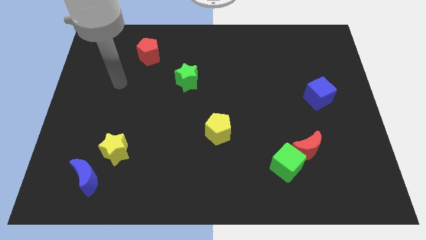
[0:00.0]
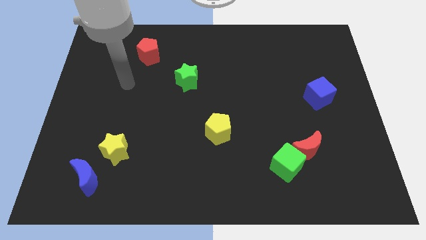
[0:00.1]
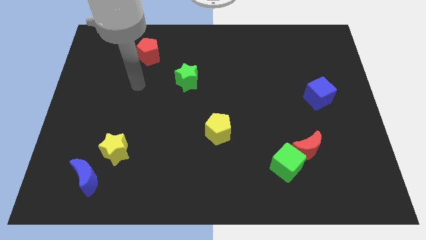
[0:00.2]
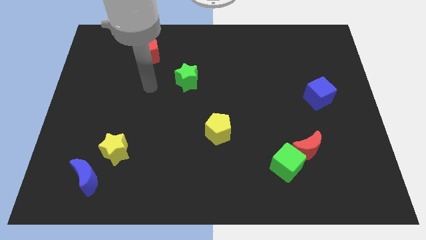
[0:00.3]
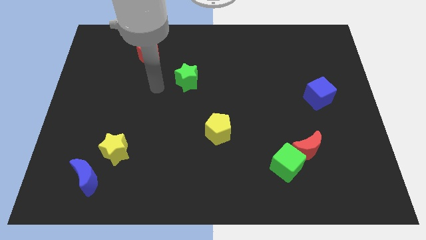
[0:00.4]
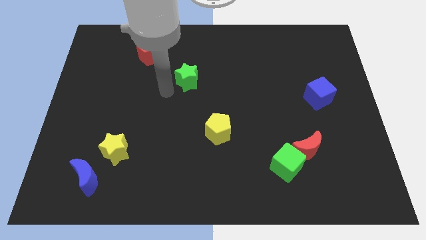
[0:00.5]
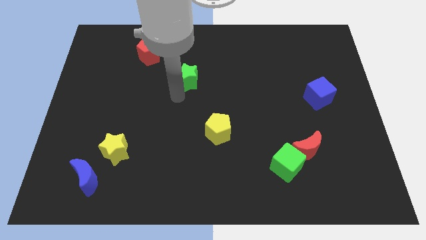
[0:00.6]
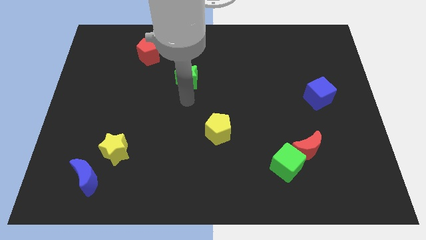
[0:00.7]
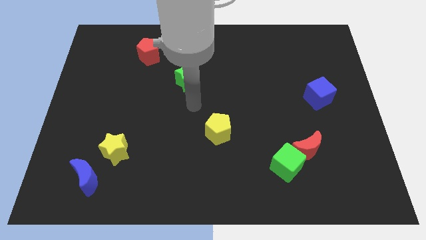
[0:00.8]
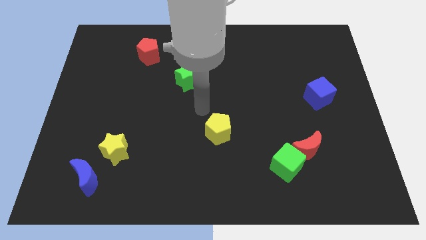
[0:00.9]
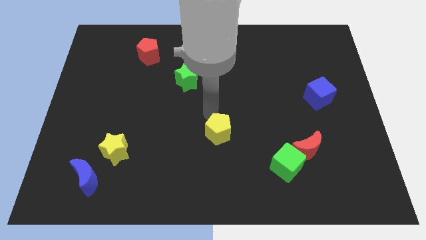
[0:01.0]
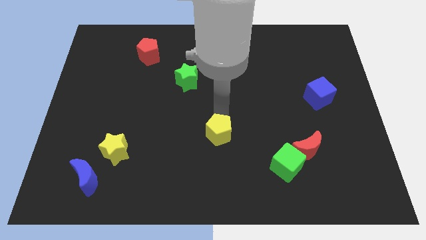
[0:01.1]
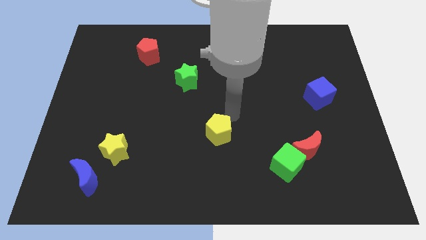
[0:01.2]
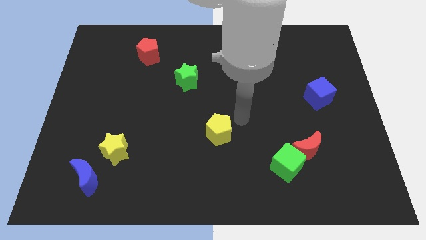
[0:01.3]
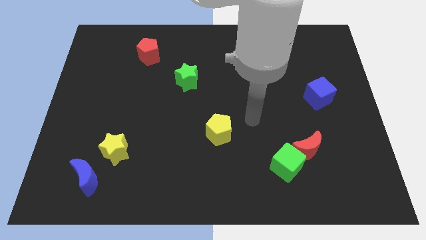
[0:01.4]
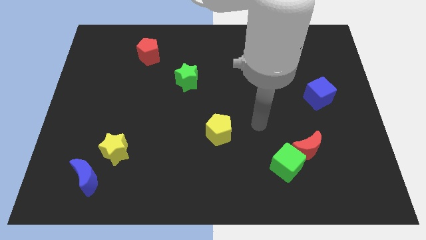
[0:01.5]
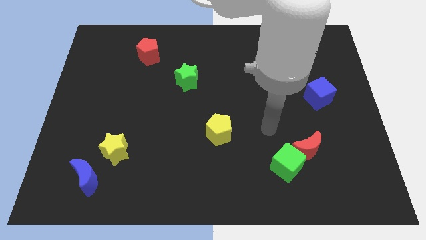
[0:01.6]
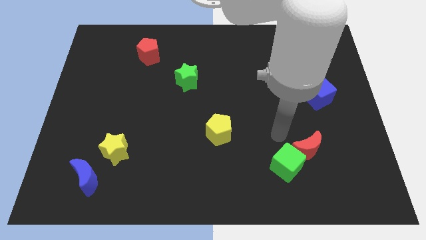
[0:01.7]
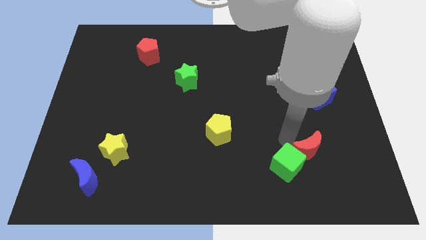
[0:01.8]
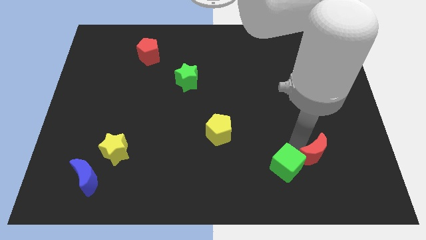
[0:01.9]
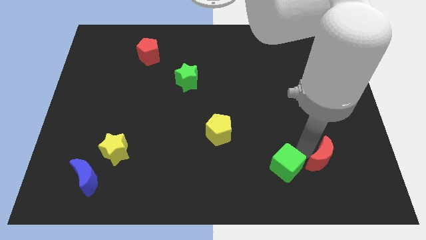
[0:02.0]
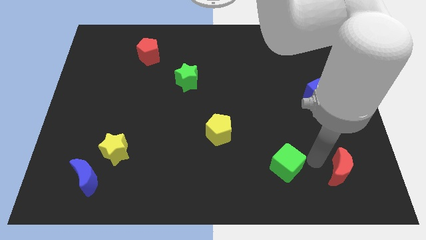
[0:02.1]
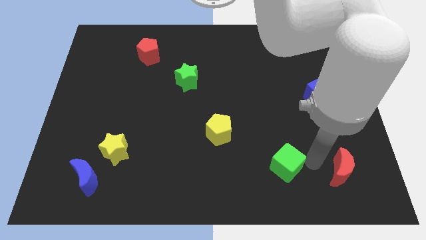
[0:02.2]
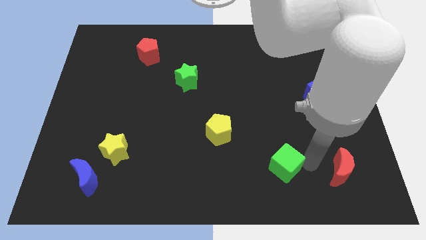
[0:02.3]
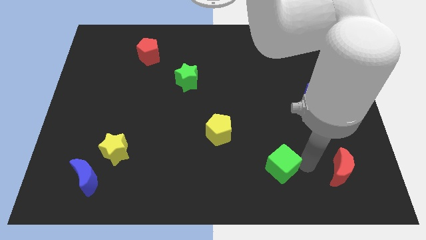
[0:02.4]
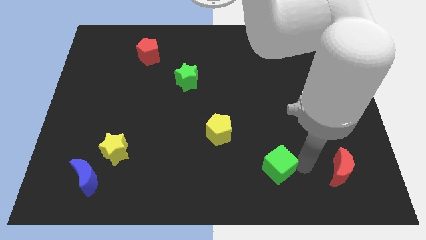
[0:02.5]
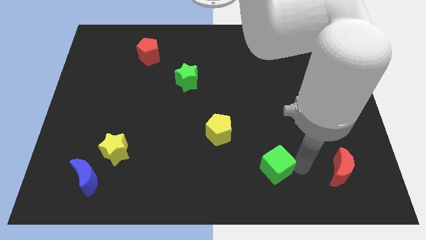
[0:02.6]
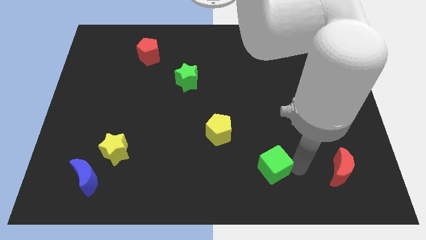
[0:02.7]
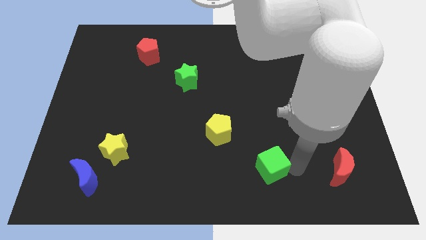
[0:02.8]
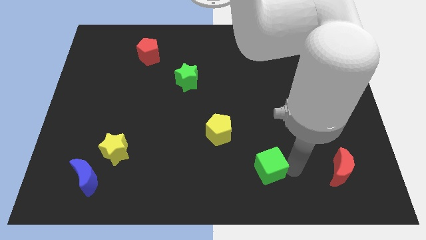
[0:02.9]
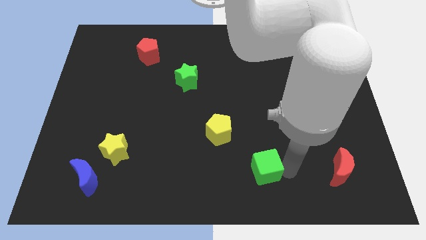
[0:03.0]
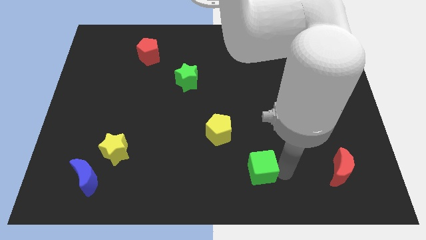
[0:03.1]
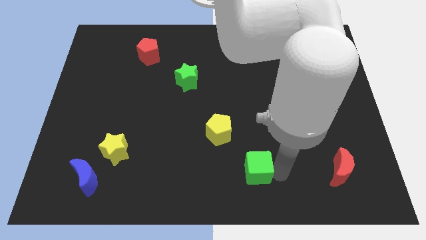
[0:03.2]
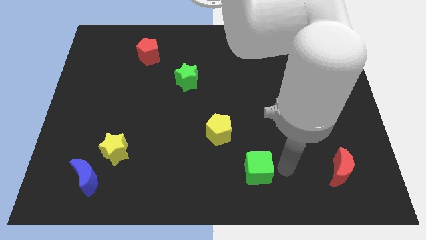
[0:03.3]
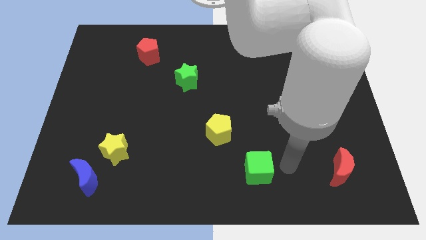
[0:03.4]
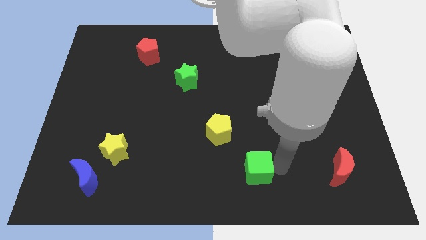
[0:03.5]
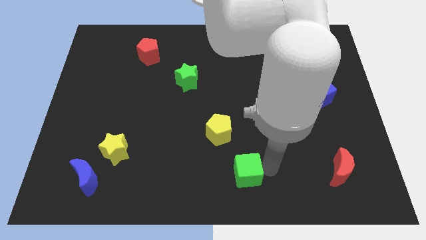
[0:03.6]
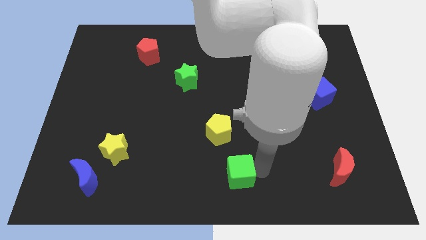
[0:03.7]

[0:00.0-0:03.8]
put the green cube to the bottom side of the yellow pentagon

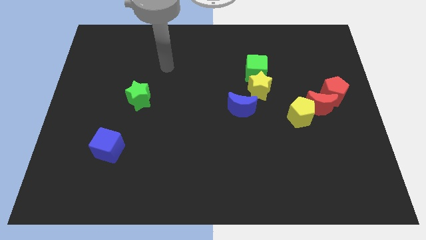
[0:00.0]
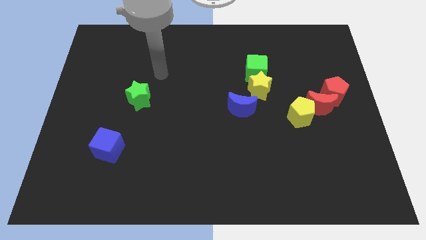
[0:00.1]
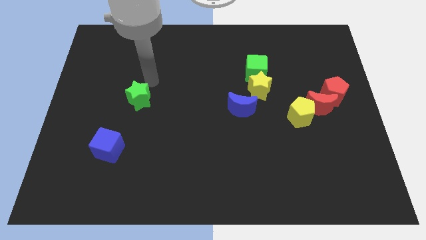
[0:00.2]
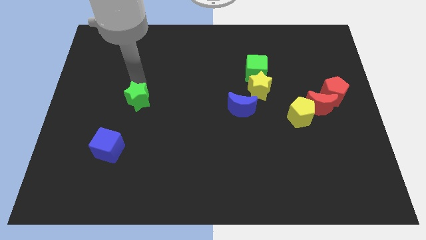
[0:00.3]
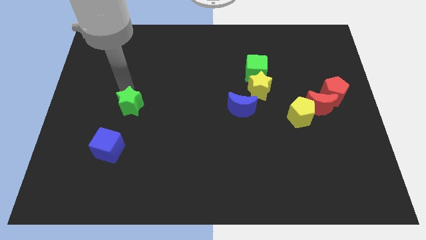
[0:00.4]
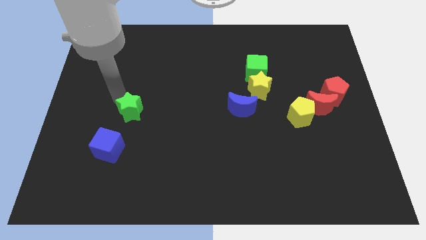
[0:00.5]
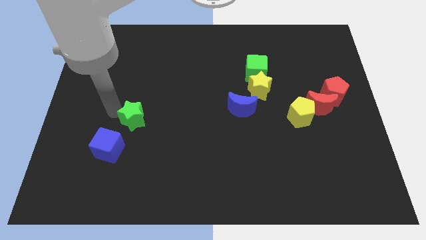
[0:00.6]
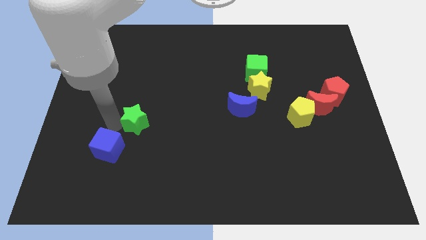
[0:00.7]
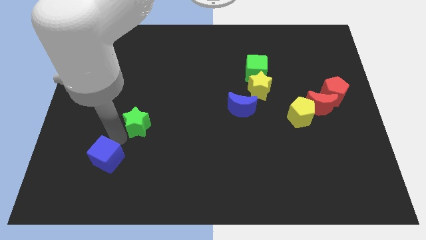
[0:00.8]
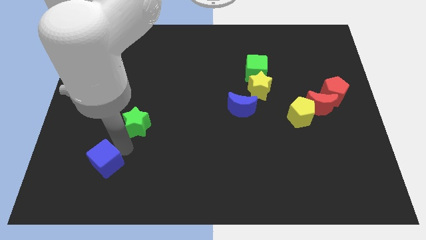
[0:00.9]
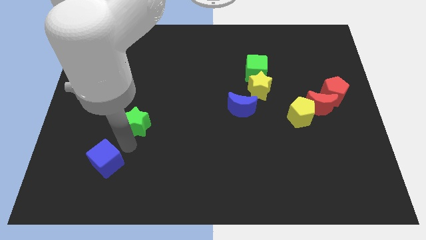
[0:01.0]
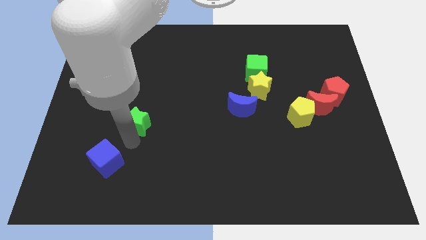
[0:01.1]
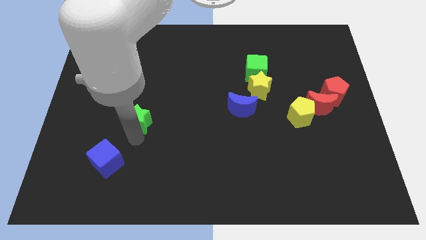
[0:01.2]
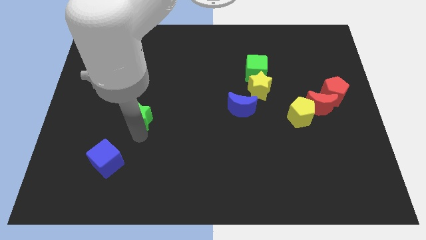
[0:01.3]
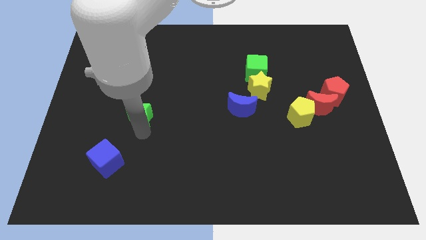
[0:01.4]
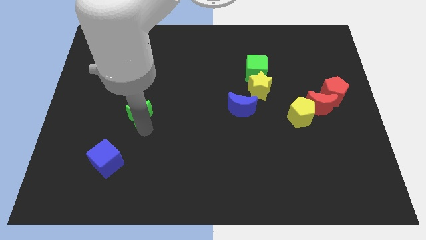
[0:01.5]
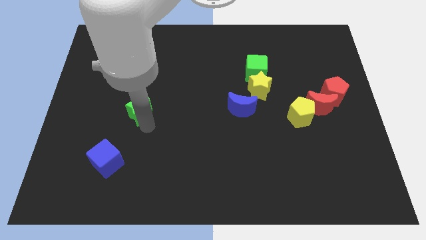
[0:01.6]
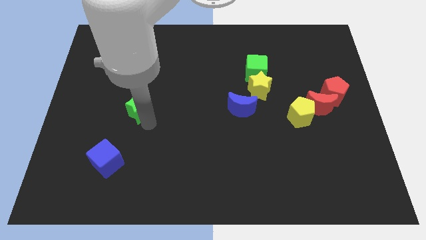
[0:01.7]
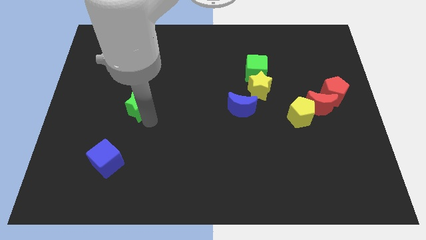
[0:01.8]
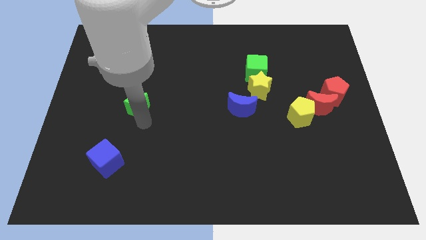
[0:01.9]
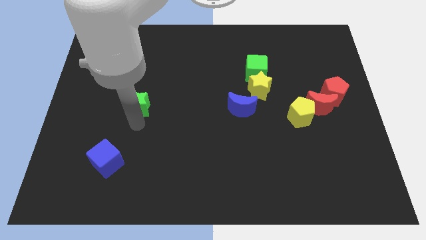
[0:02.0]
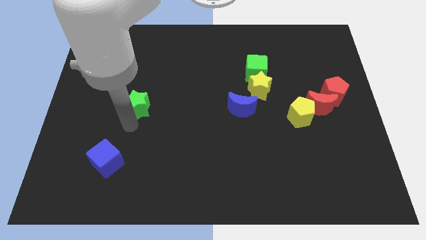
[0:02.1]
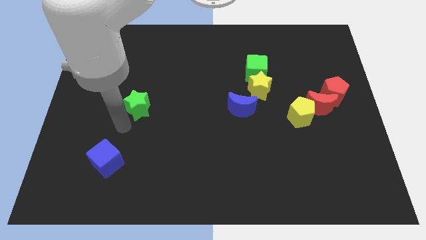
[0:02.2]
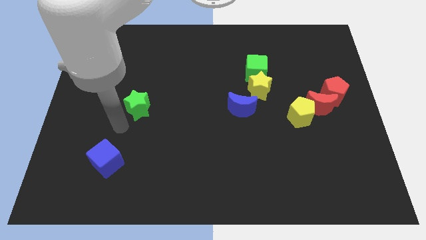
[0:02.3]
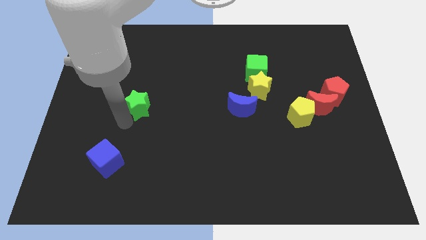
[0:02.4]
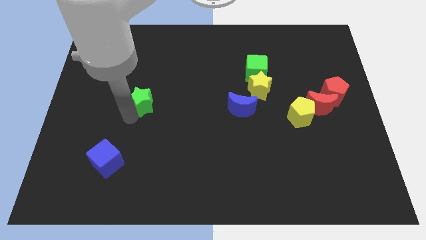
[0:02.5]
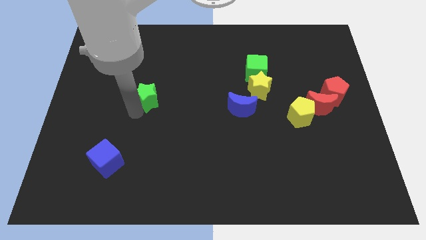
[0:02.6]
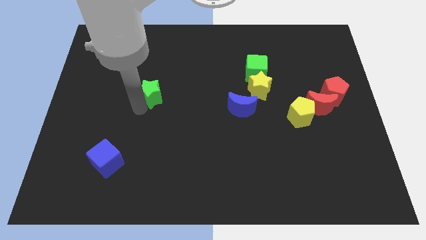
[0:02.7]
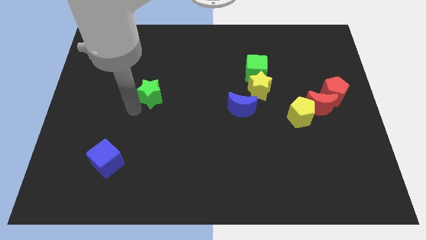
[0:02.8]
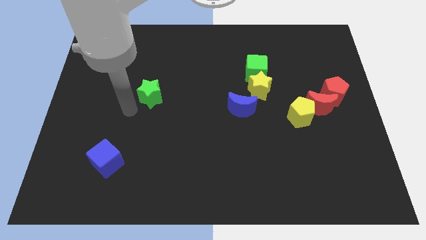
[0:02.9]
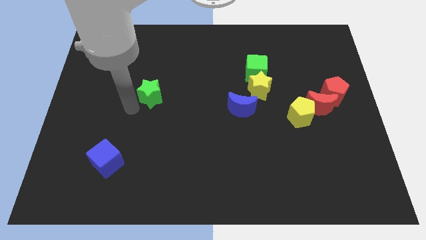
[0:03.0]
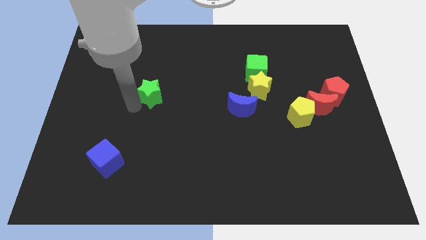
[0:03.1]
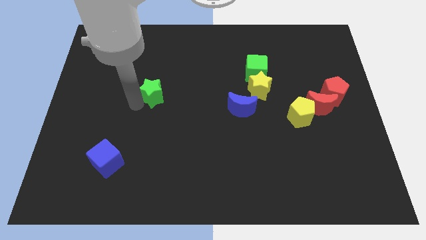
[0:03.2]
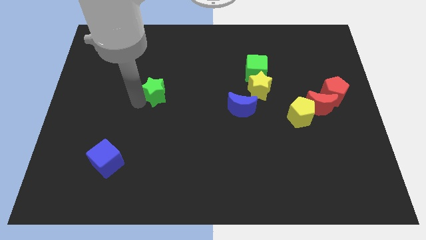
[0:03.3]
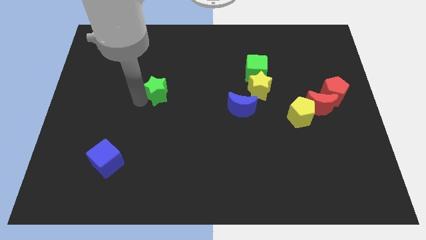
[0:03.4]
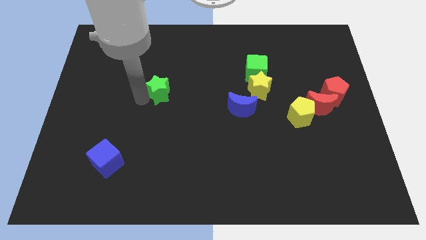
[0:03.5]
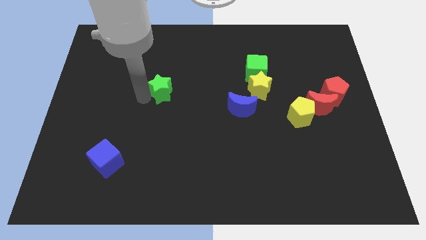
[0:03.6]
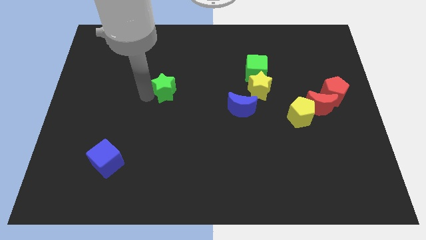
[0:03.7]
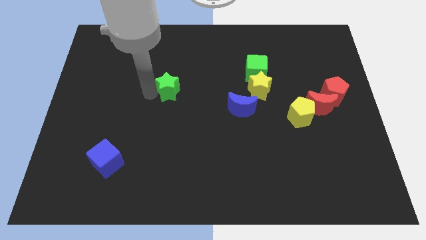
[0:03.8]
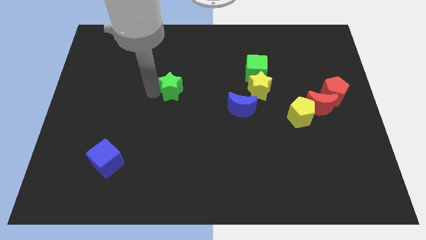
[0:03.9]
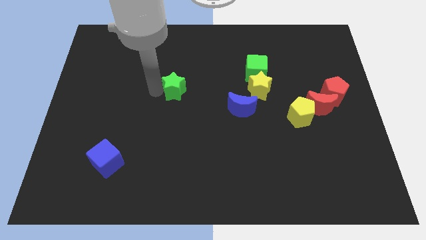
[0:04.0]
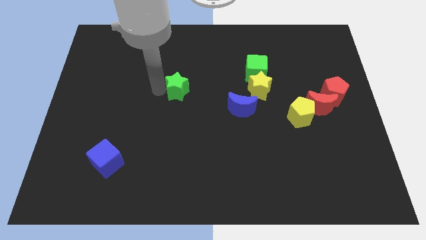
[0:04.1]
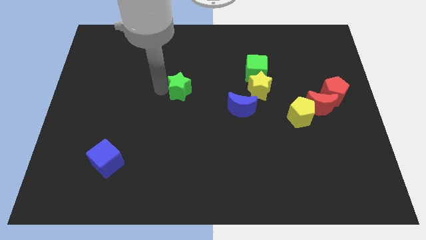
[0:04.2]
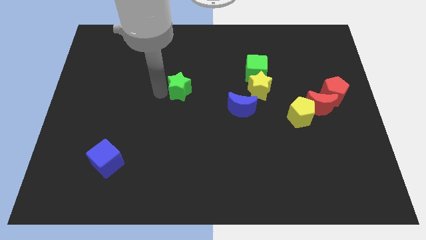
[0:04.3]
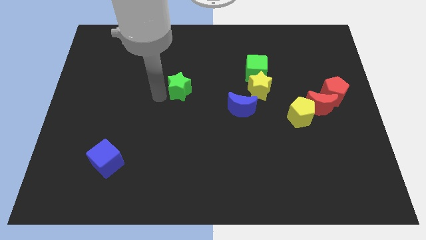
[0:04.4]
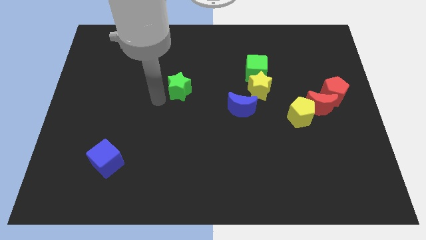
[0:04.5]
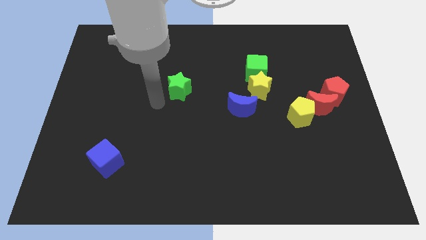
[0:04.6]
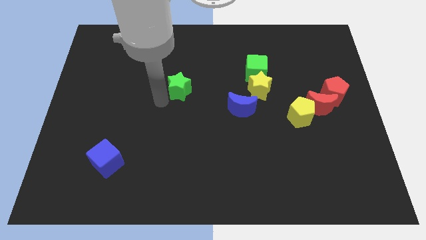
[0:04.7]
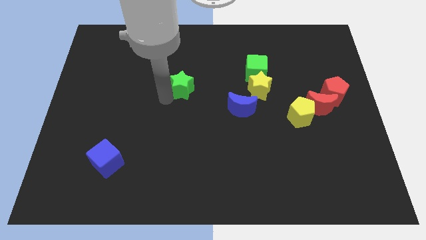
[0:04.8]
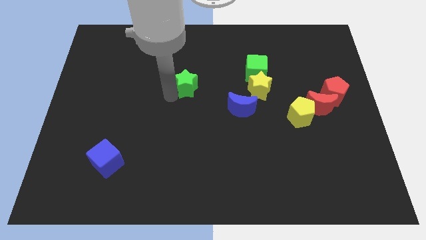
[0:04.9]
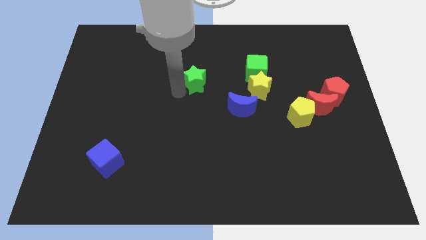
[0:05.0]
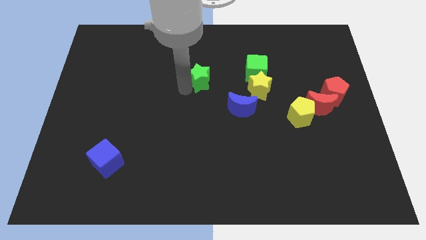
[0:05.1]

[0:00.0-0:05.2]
push the green star just left of the green cube
